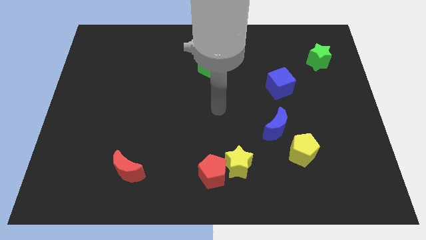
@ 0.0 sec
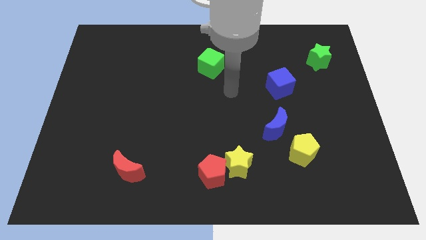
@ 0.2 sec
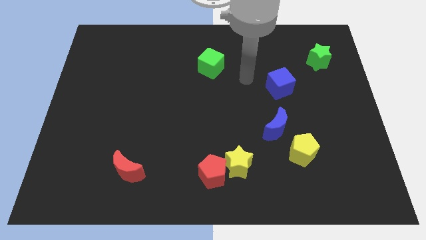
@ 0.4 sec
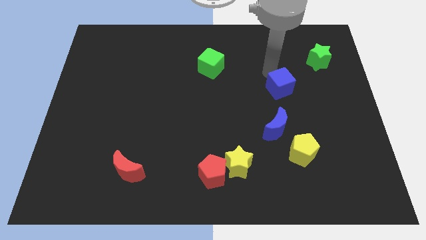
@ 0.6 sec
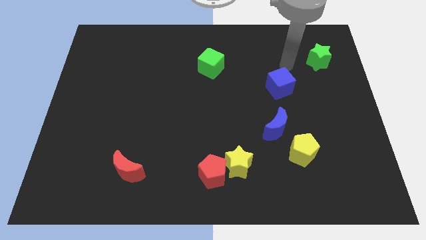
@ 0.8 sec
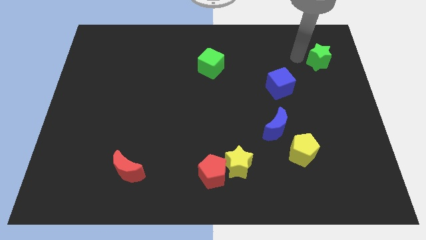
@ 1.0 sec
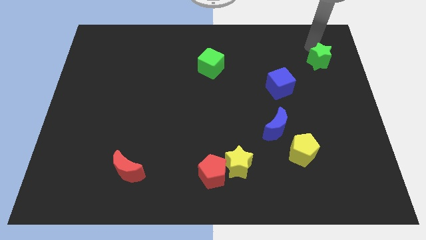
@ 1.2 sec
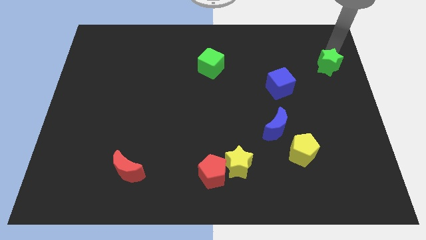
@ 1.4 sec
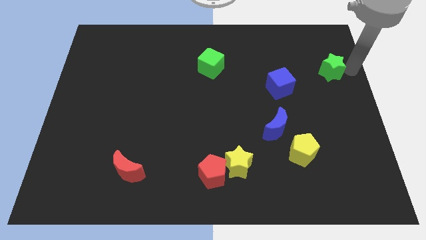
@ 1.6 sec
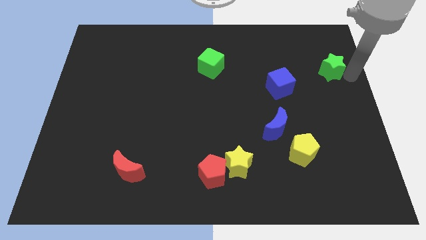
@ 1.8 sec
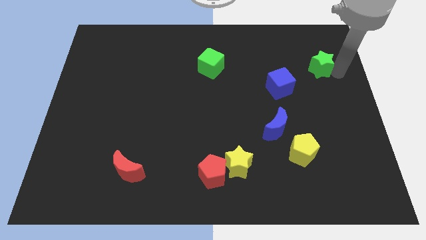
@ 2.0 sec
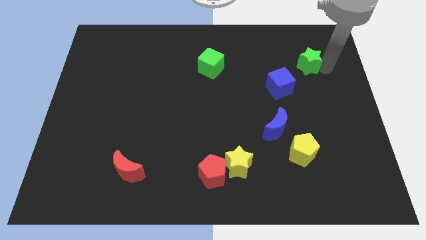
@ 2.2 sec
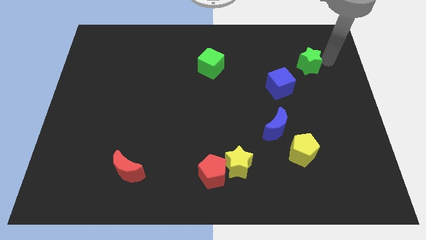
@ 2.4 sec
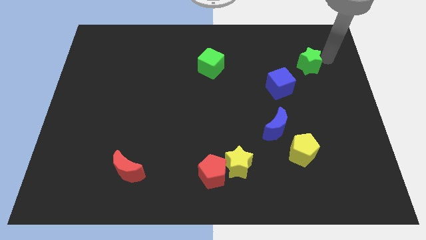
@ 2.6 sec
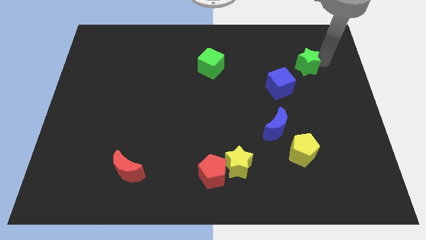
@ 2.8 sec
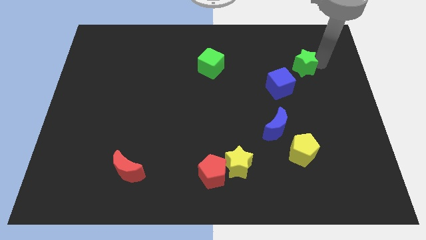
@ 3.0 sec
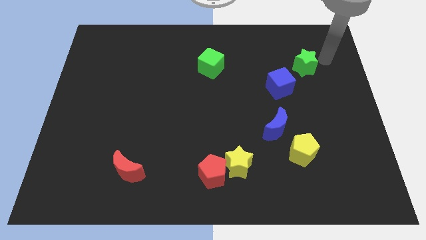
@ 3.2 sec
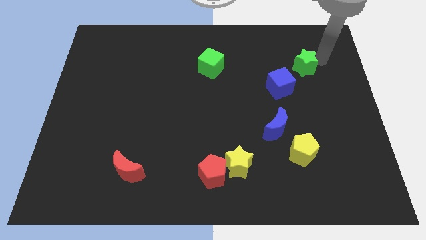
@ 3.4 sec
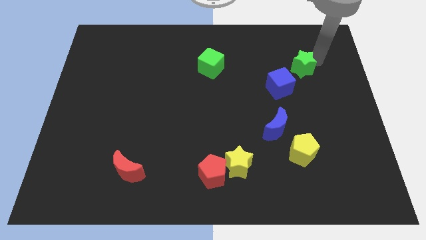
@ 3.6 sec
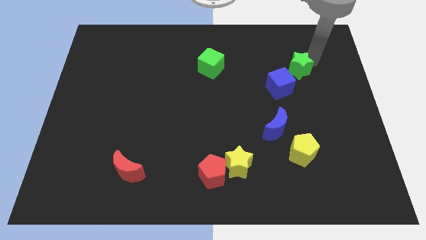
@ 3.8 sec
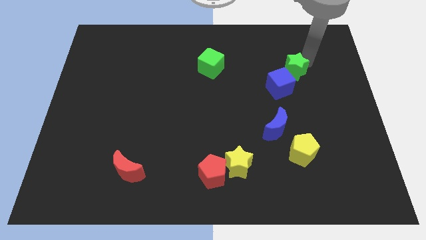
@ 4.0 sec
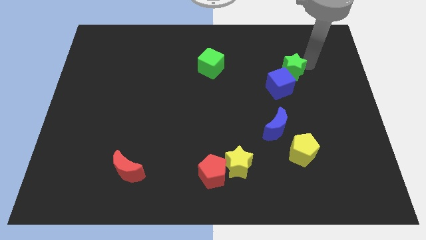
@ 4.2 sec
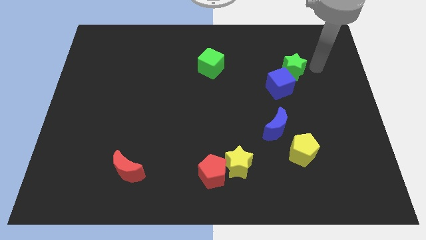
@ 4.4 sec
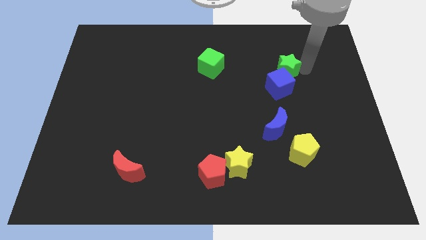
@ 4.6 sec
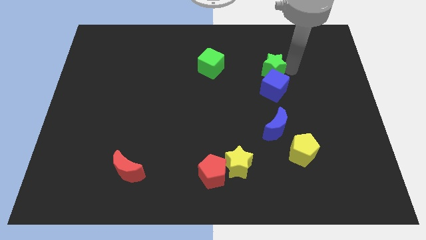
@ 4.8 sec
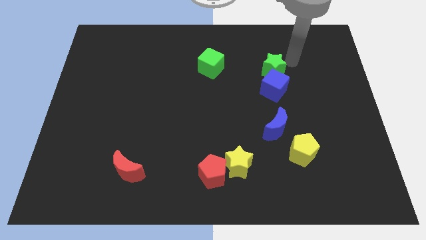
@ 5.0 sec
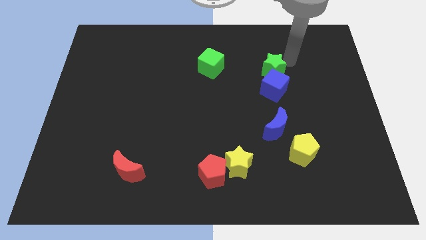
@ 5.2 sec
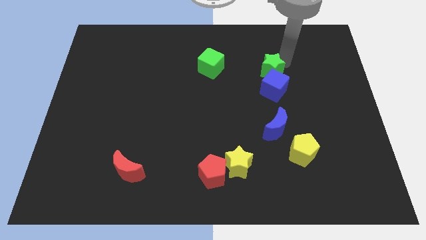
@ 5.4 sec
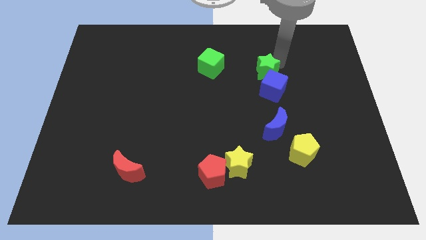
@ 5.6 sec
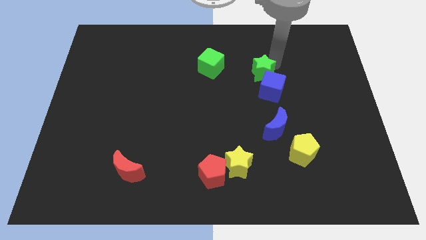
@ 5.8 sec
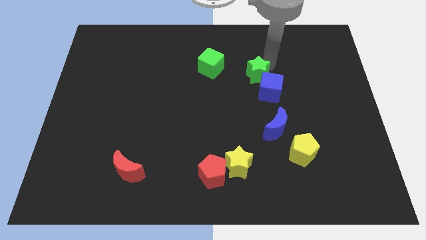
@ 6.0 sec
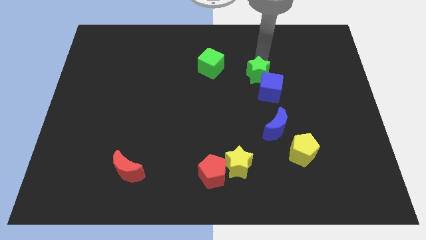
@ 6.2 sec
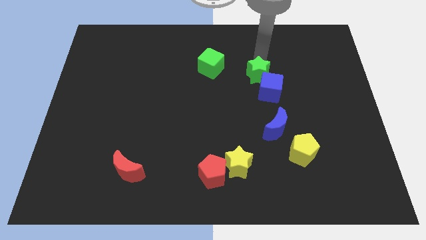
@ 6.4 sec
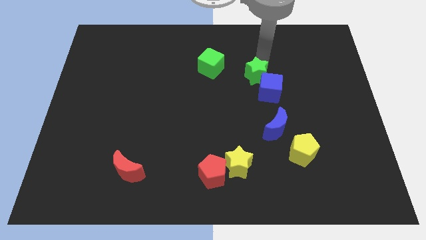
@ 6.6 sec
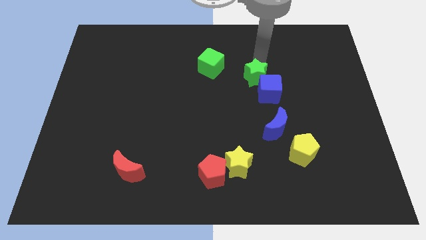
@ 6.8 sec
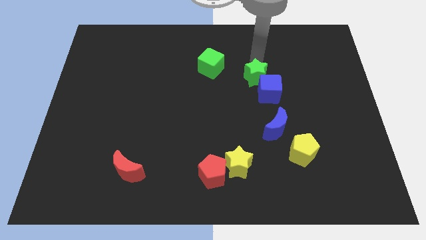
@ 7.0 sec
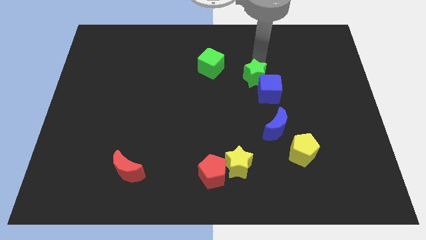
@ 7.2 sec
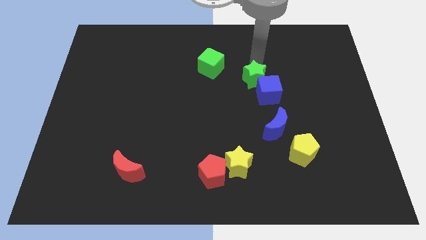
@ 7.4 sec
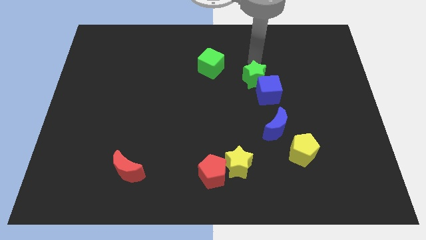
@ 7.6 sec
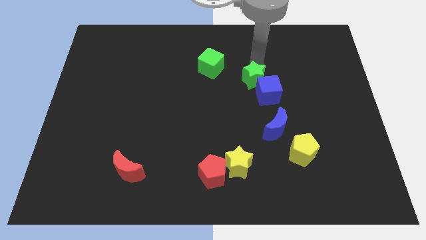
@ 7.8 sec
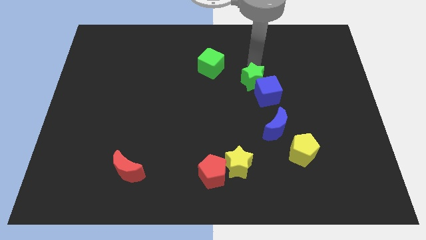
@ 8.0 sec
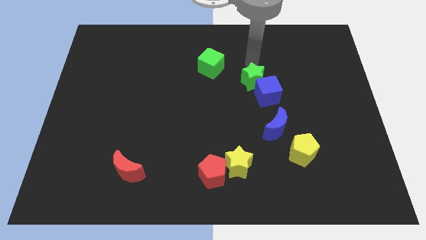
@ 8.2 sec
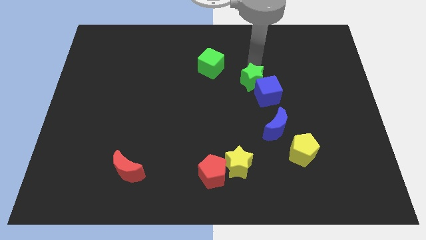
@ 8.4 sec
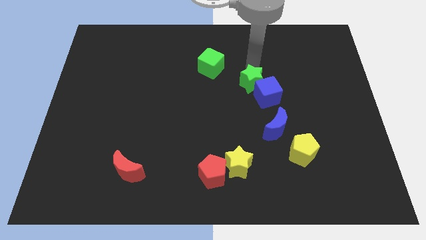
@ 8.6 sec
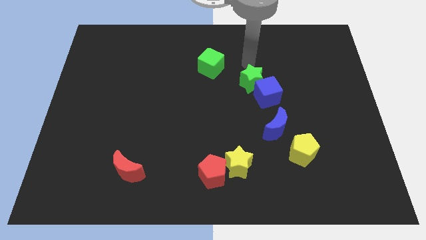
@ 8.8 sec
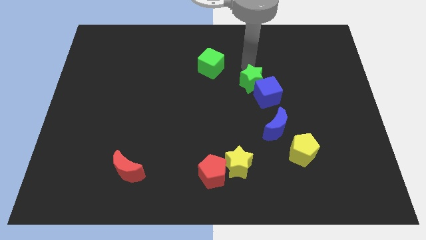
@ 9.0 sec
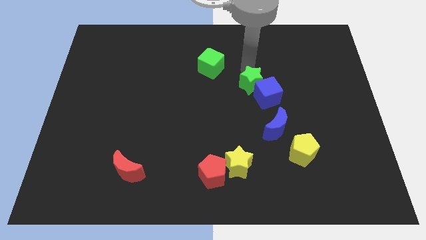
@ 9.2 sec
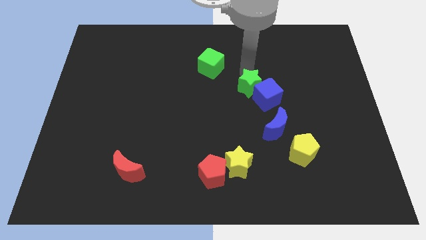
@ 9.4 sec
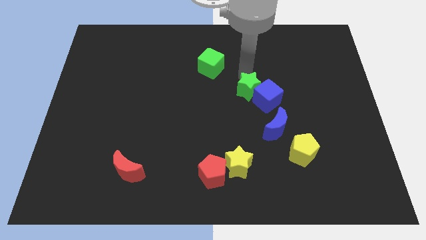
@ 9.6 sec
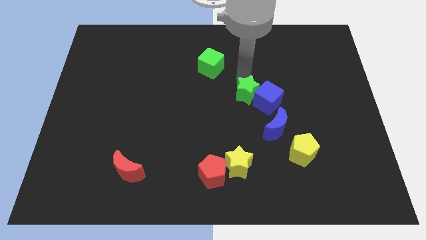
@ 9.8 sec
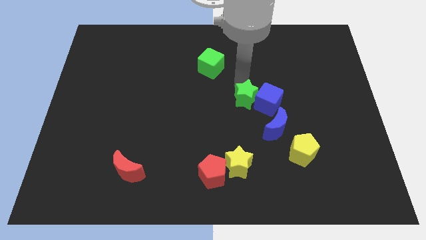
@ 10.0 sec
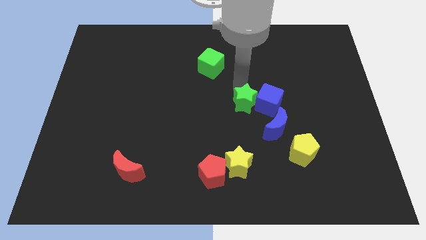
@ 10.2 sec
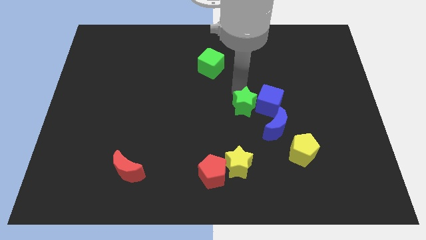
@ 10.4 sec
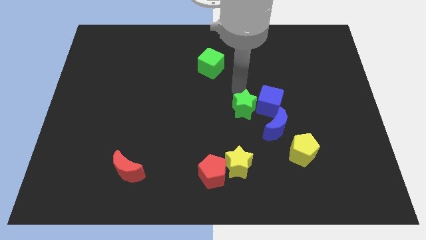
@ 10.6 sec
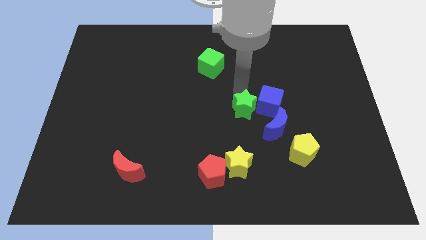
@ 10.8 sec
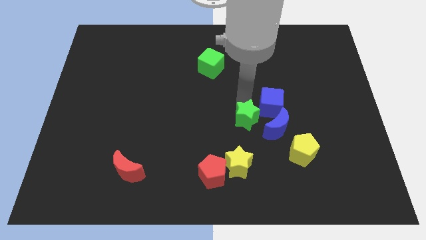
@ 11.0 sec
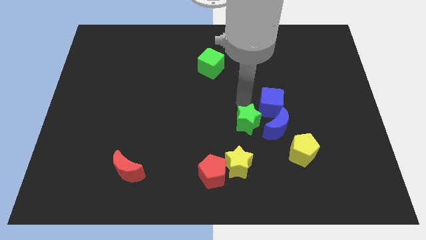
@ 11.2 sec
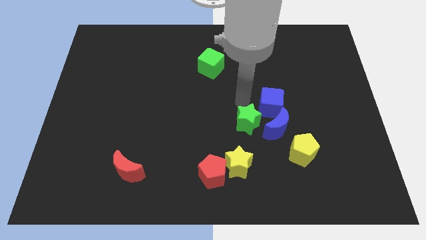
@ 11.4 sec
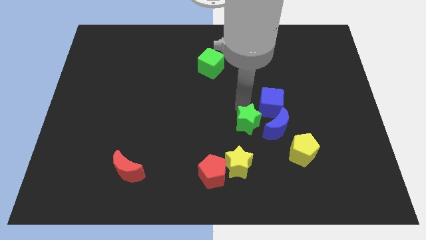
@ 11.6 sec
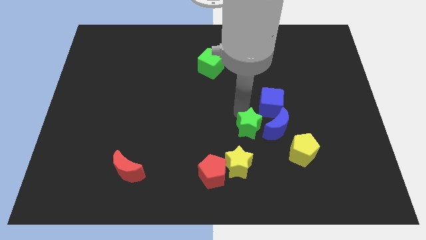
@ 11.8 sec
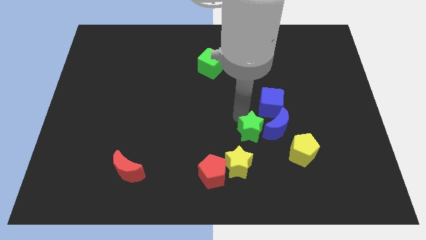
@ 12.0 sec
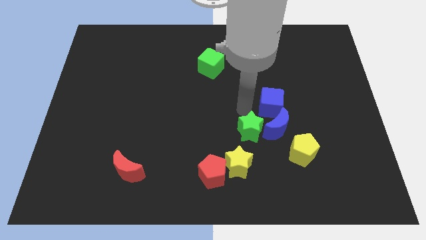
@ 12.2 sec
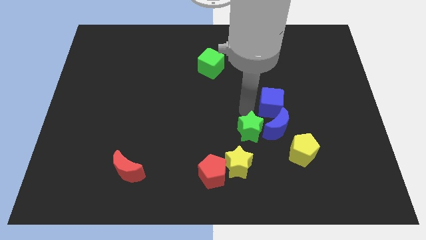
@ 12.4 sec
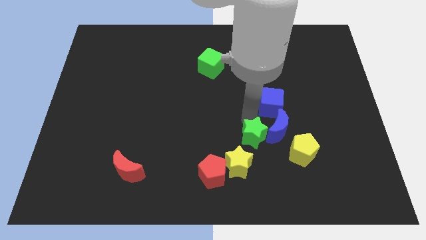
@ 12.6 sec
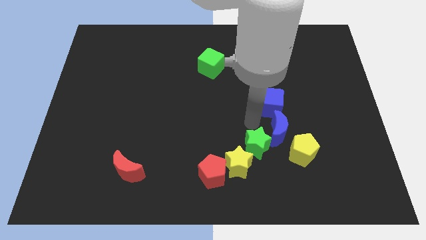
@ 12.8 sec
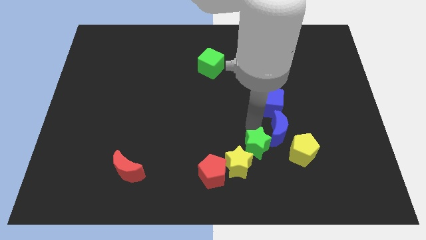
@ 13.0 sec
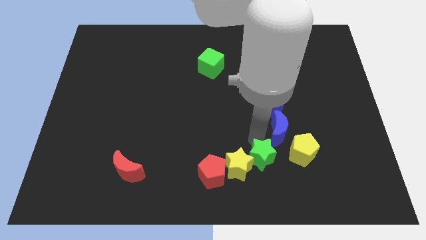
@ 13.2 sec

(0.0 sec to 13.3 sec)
put the green star to the right of the red pentagon
